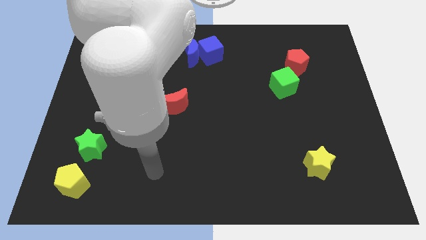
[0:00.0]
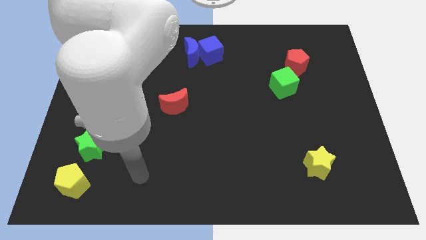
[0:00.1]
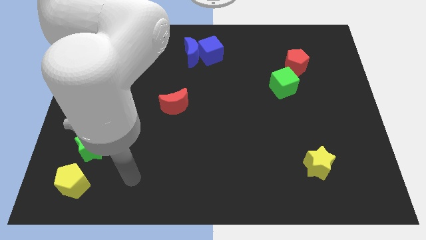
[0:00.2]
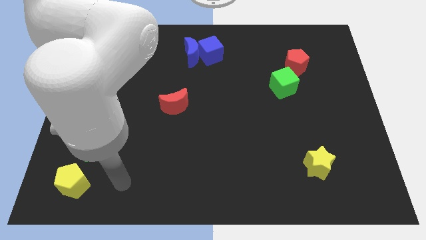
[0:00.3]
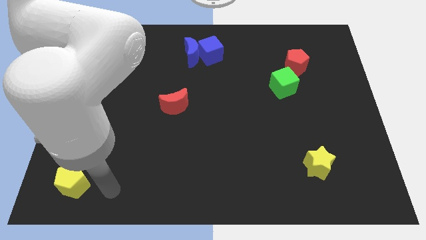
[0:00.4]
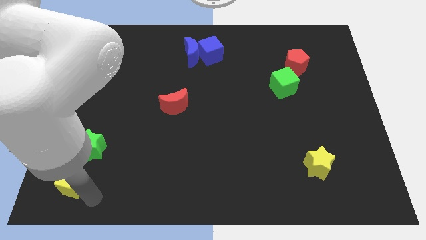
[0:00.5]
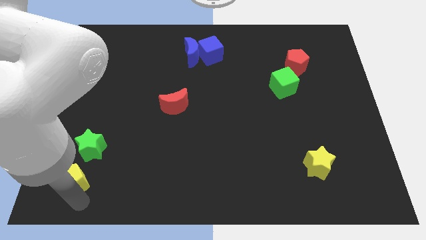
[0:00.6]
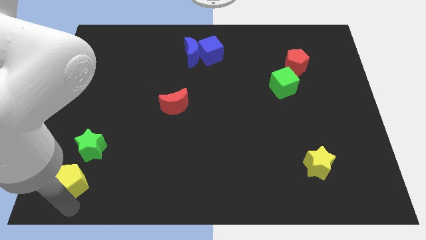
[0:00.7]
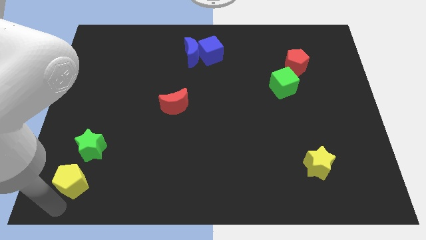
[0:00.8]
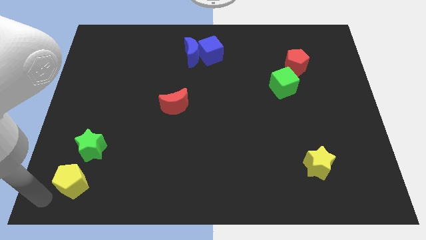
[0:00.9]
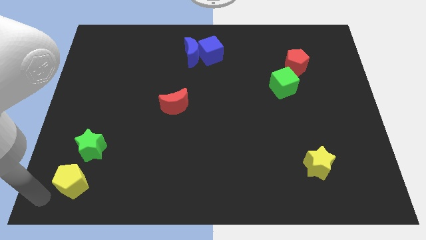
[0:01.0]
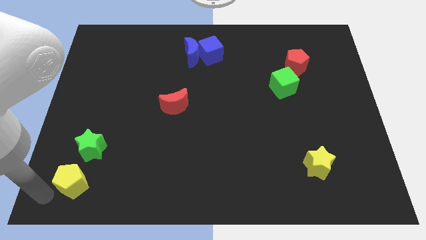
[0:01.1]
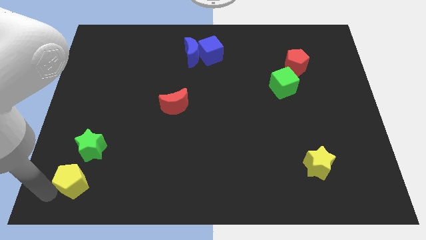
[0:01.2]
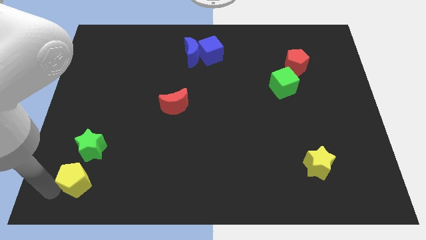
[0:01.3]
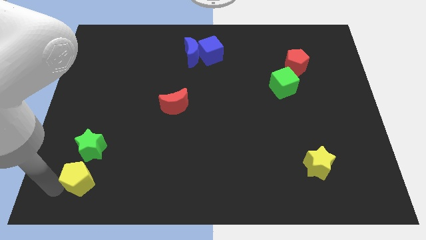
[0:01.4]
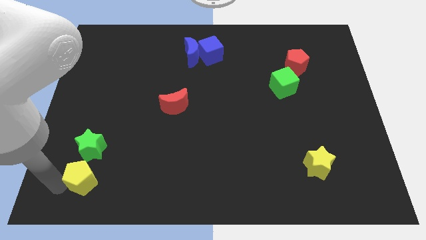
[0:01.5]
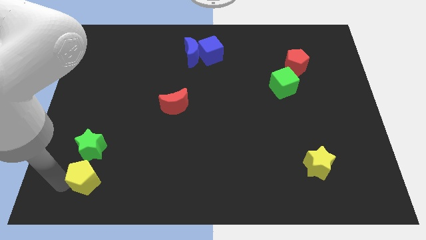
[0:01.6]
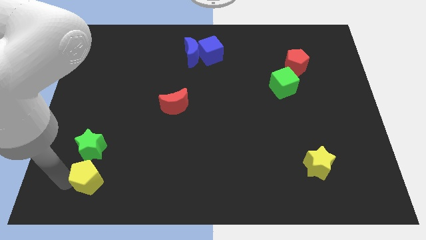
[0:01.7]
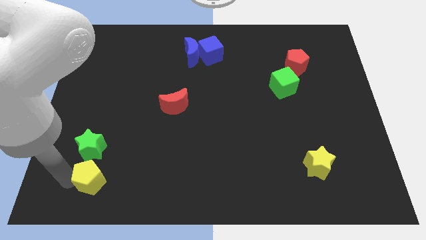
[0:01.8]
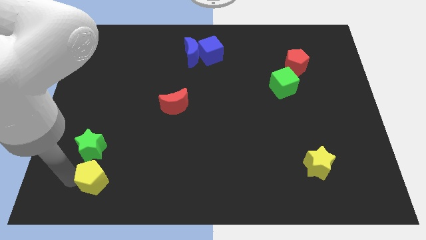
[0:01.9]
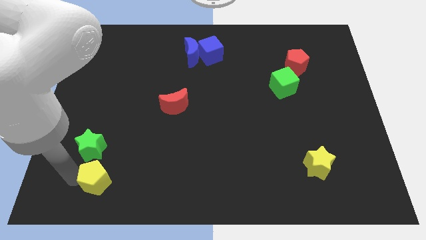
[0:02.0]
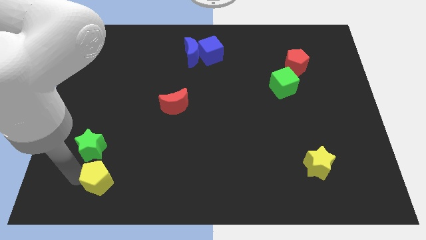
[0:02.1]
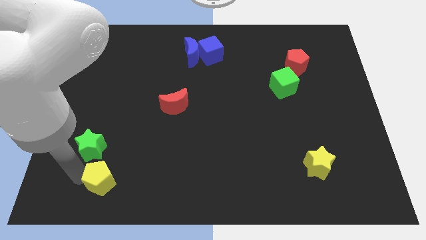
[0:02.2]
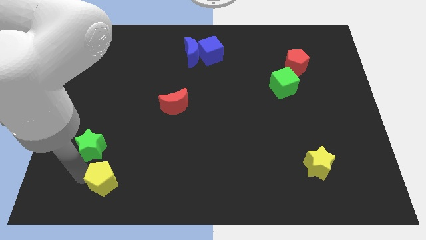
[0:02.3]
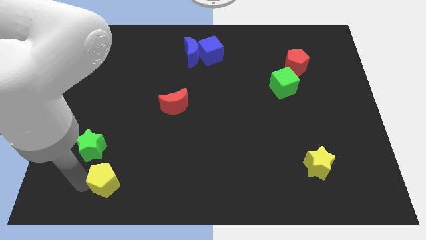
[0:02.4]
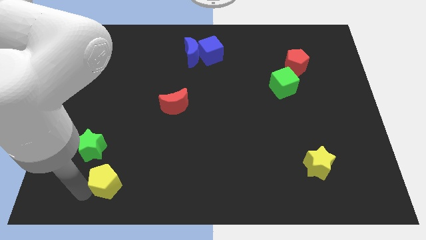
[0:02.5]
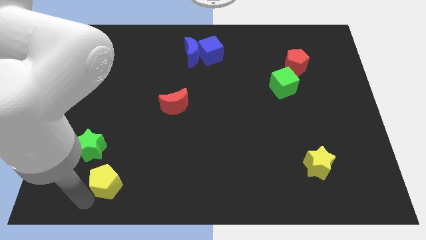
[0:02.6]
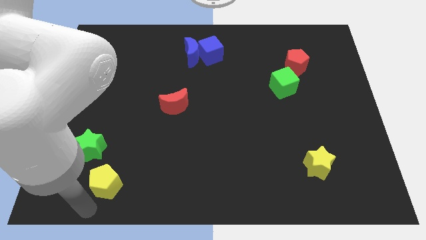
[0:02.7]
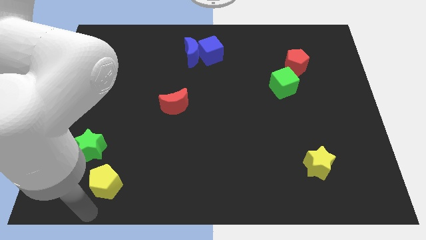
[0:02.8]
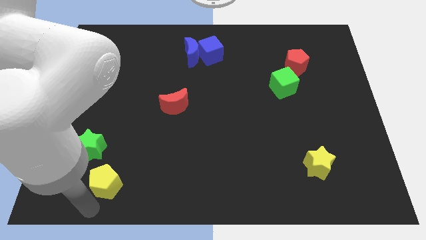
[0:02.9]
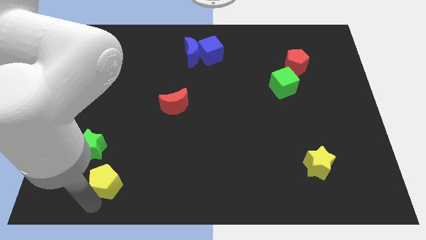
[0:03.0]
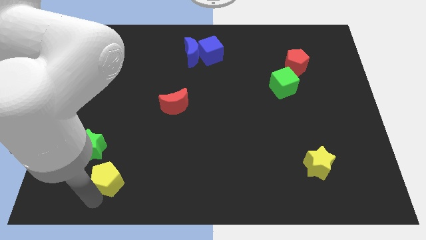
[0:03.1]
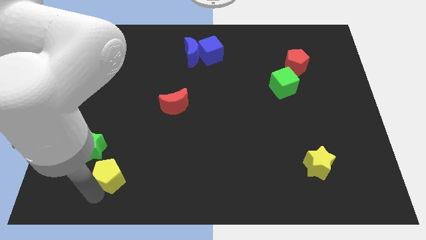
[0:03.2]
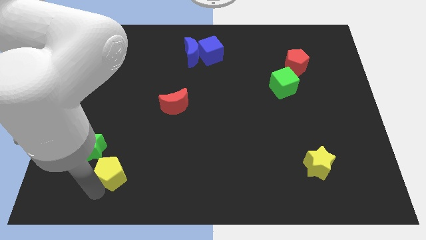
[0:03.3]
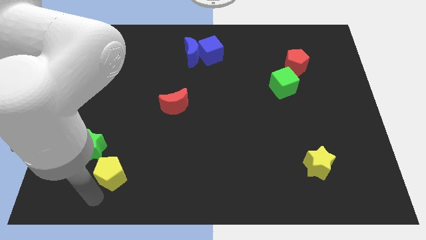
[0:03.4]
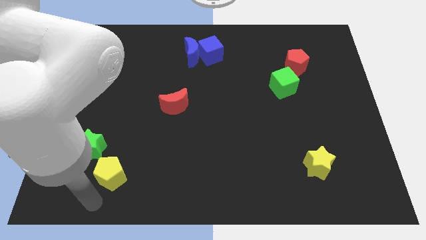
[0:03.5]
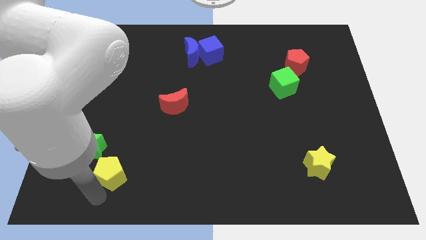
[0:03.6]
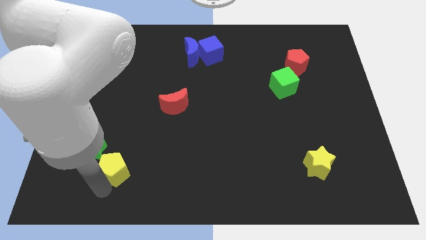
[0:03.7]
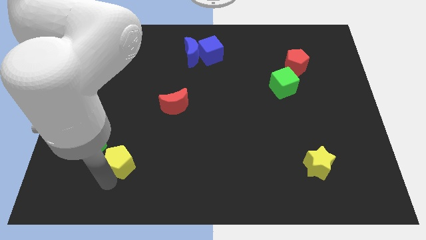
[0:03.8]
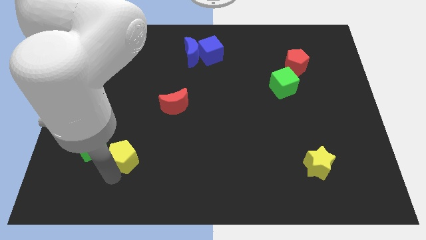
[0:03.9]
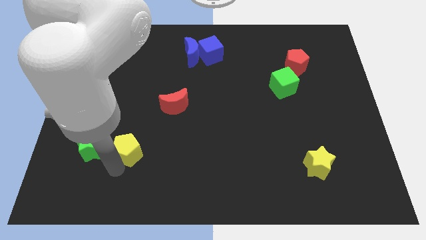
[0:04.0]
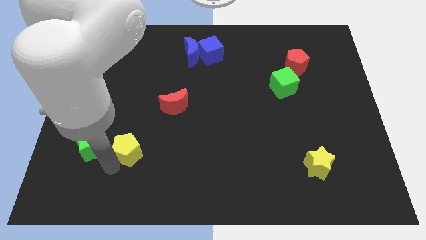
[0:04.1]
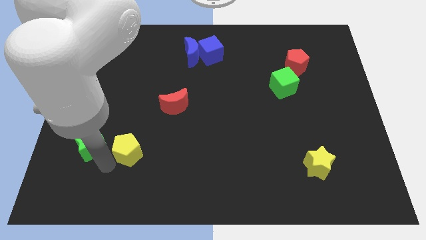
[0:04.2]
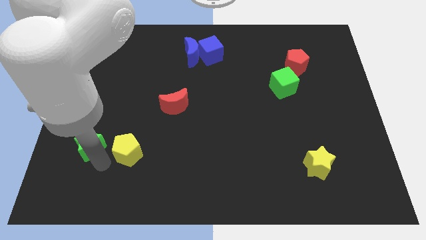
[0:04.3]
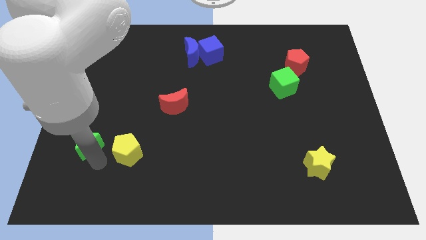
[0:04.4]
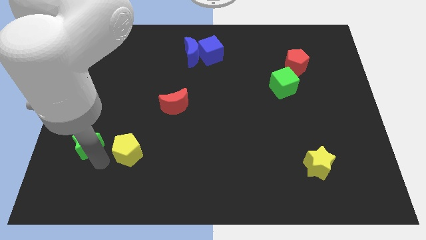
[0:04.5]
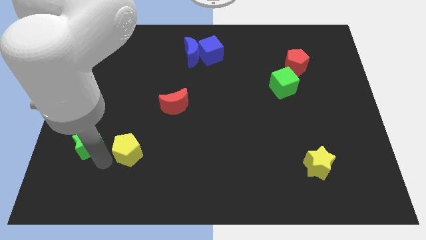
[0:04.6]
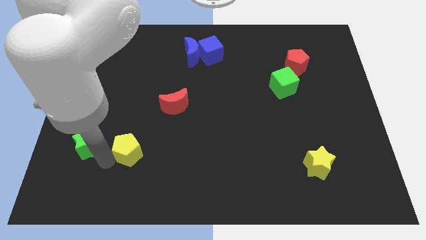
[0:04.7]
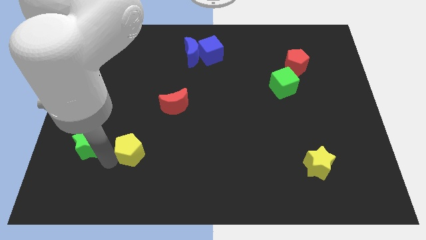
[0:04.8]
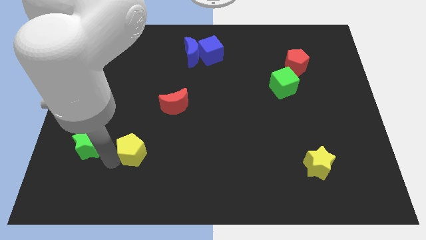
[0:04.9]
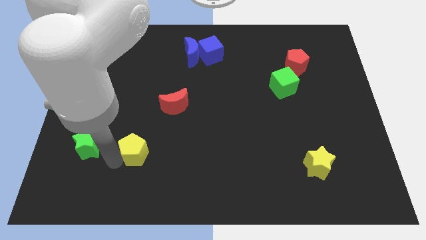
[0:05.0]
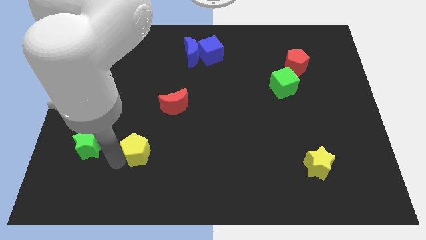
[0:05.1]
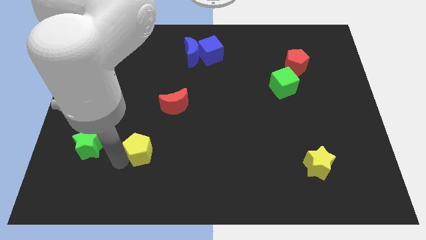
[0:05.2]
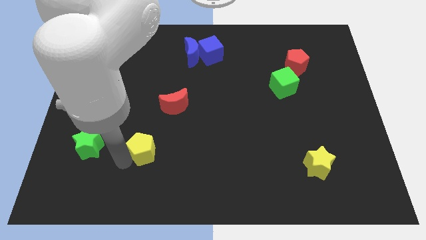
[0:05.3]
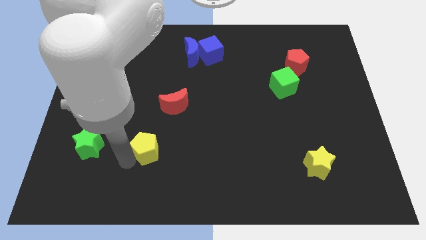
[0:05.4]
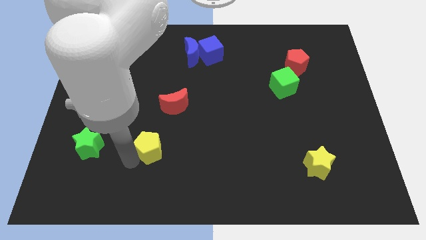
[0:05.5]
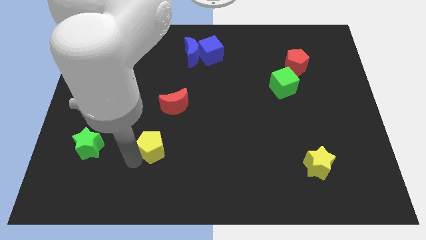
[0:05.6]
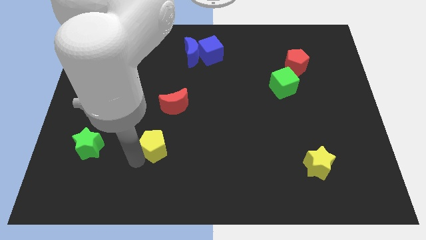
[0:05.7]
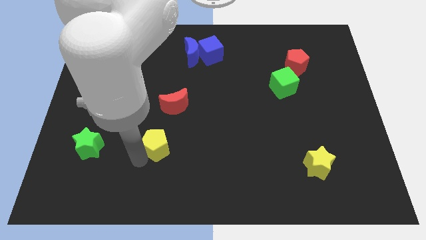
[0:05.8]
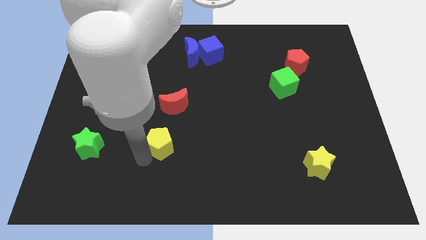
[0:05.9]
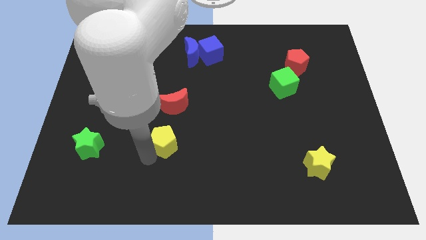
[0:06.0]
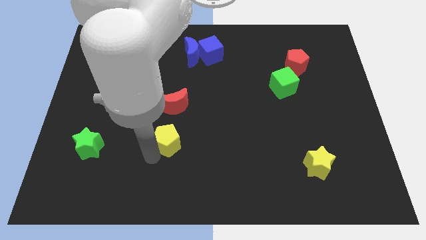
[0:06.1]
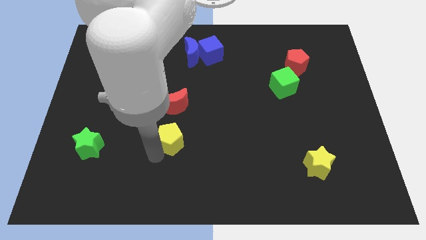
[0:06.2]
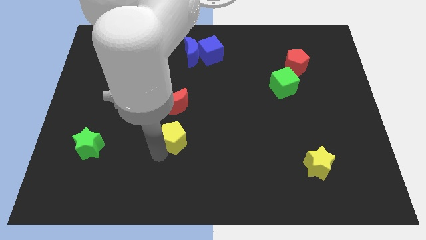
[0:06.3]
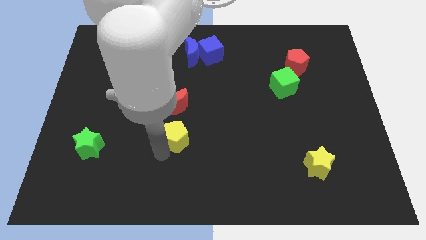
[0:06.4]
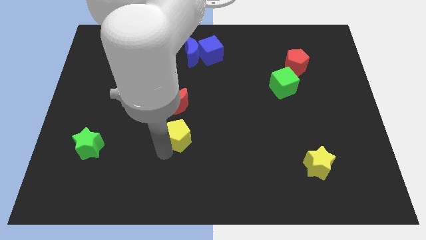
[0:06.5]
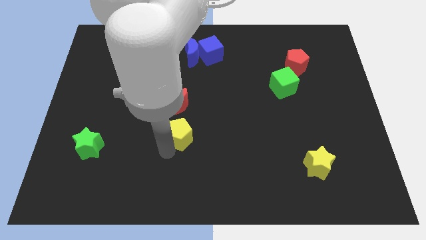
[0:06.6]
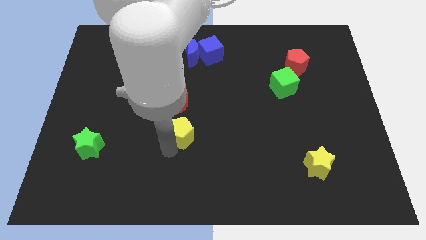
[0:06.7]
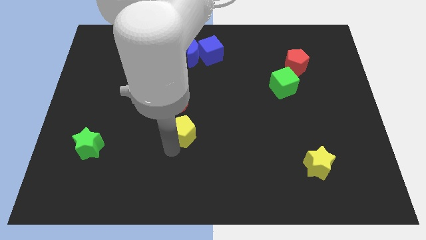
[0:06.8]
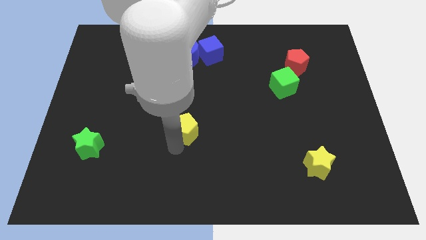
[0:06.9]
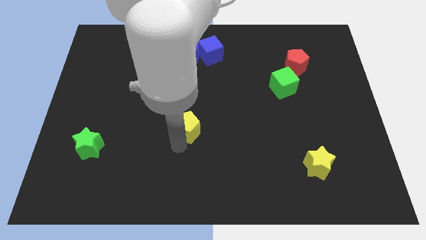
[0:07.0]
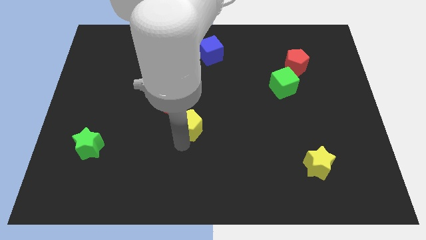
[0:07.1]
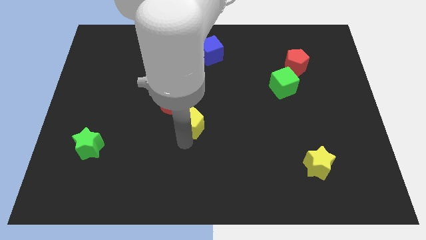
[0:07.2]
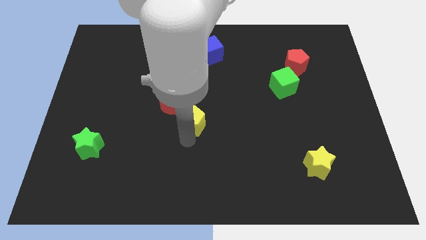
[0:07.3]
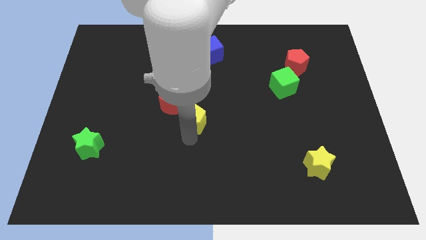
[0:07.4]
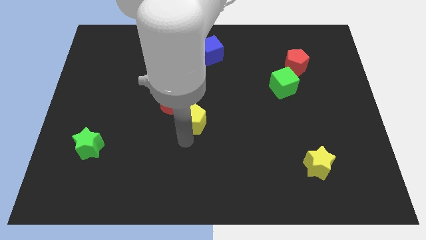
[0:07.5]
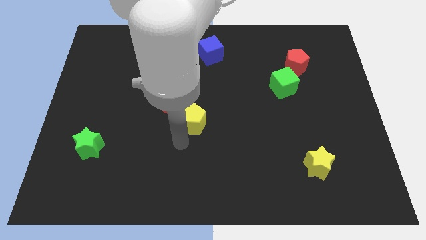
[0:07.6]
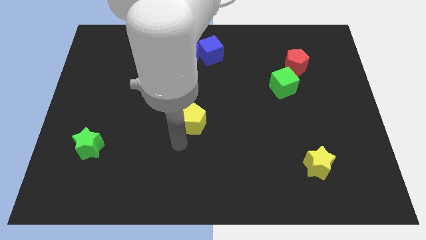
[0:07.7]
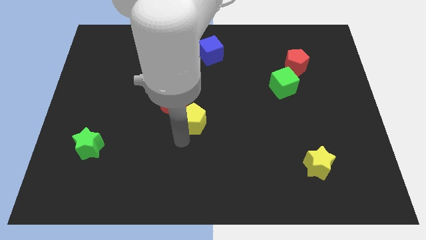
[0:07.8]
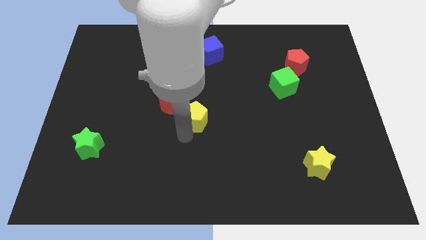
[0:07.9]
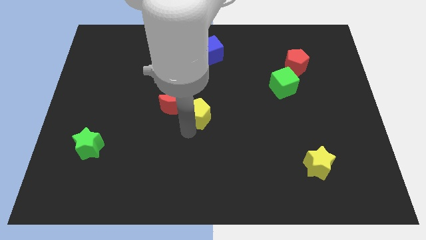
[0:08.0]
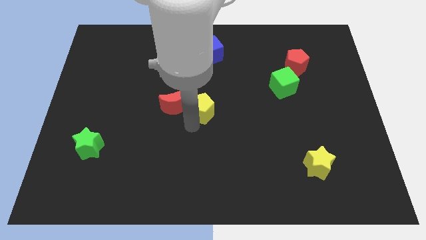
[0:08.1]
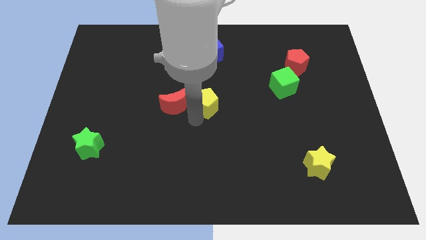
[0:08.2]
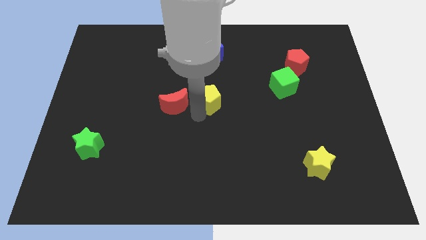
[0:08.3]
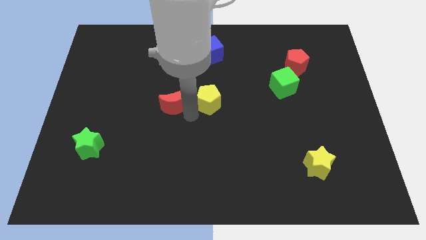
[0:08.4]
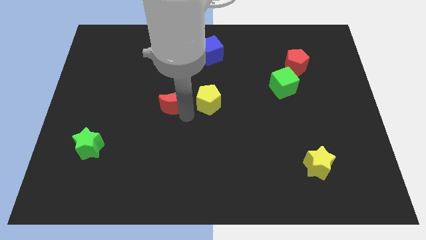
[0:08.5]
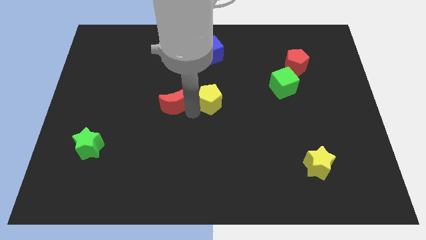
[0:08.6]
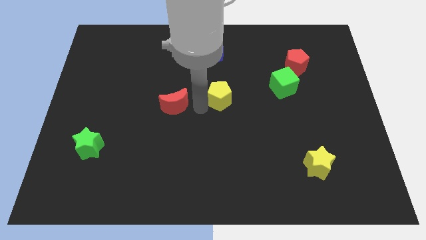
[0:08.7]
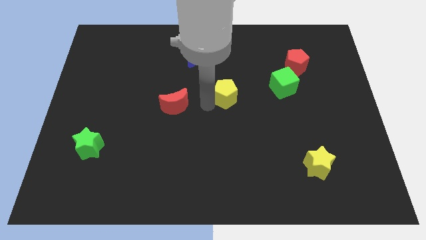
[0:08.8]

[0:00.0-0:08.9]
slide the yellow pentagon to the left side of the green cube
